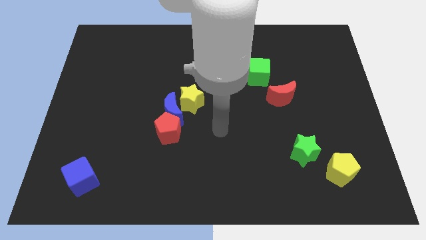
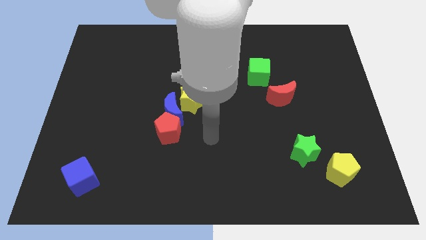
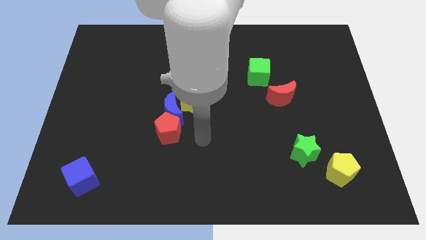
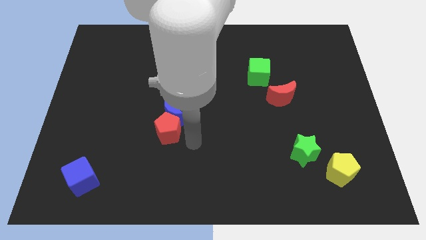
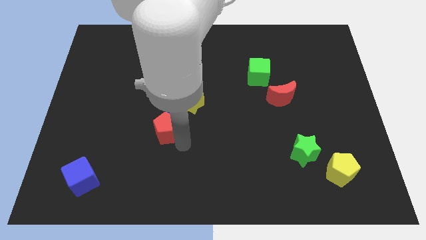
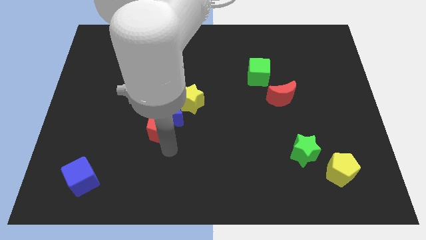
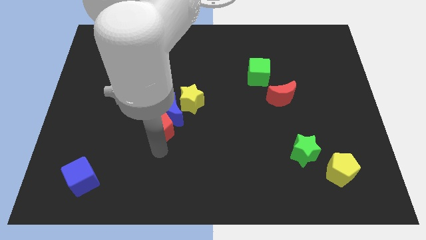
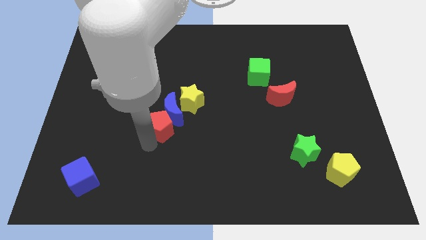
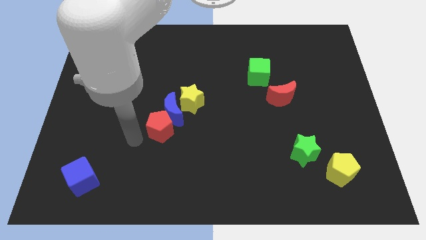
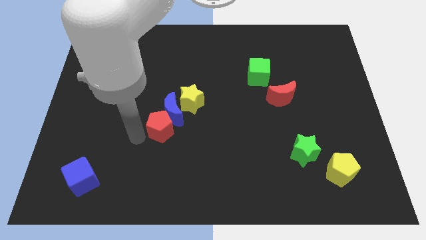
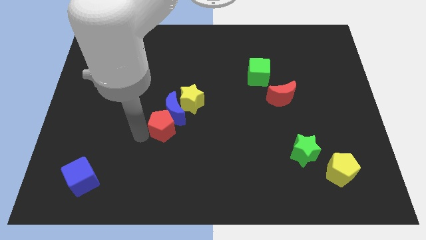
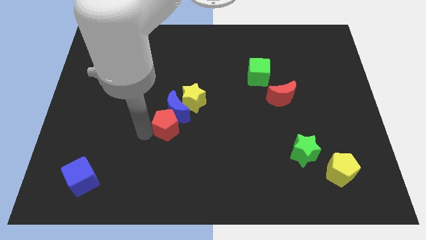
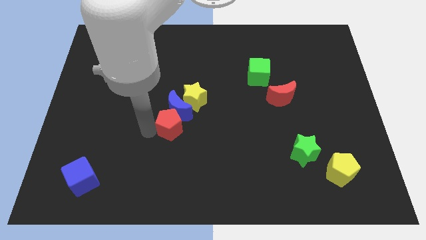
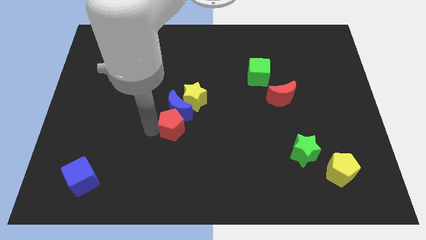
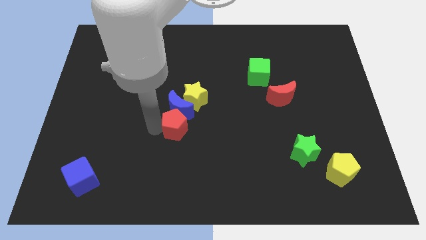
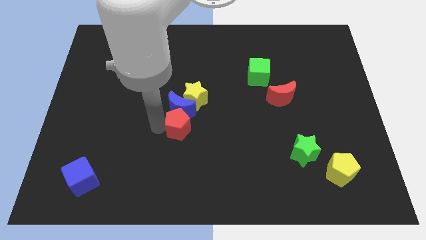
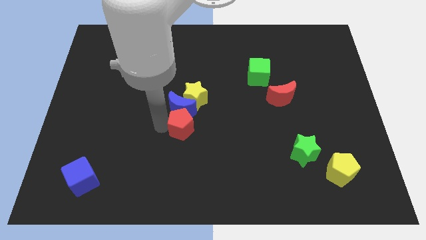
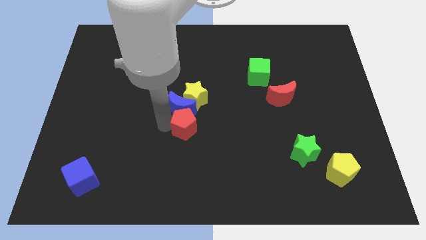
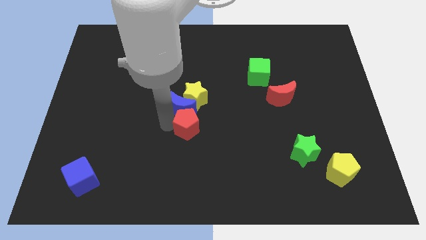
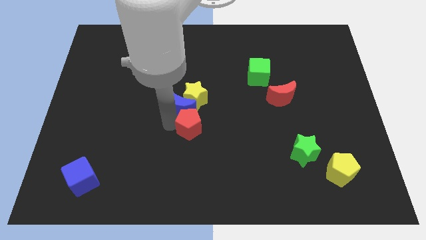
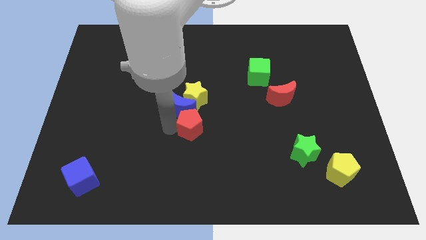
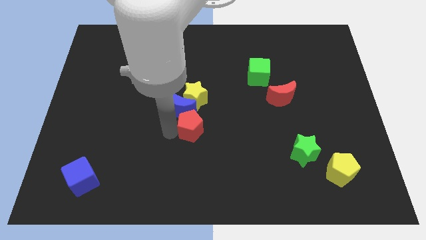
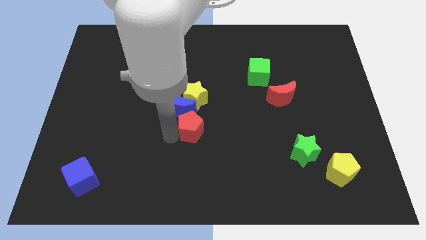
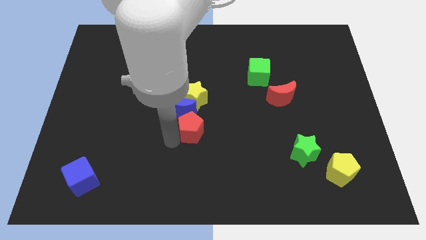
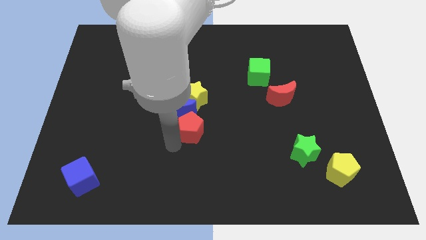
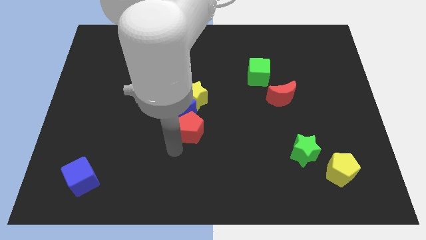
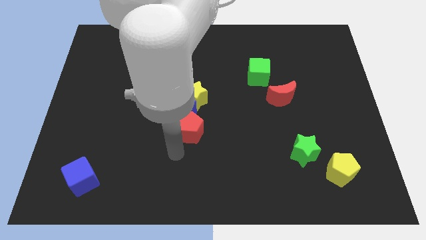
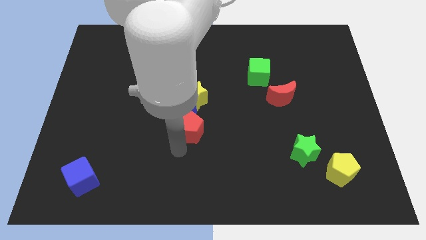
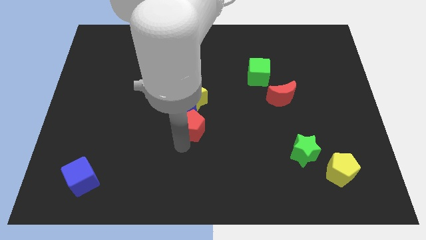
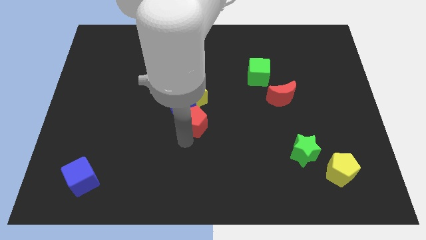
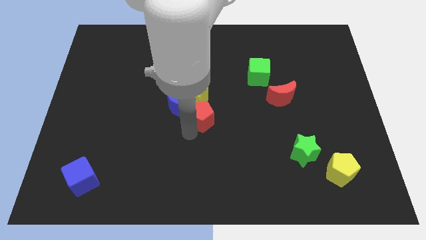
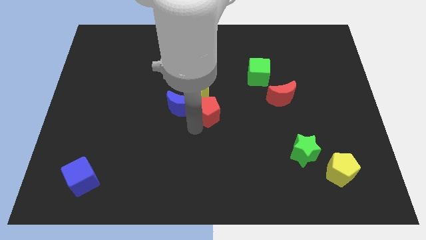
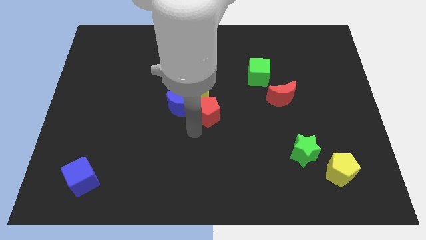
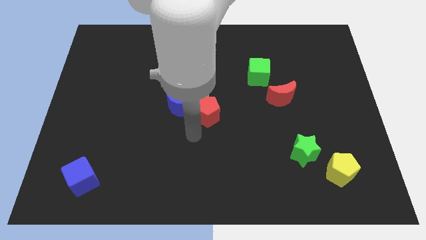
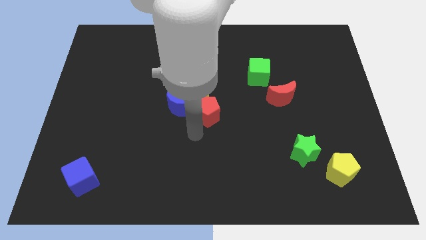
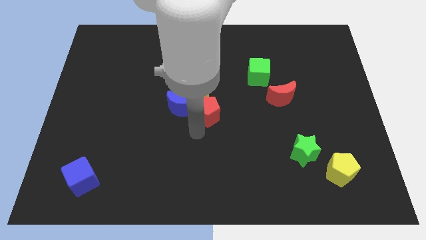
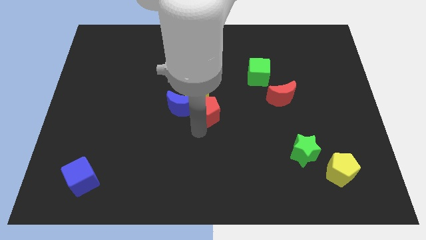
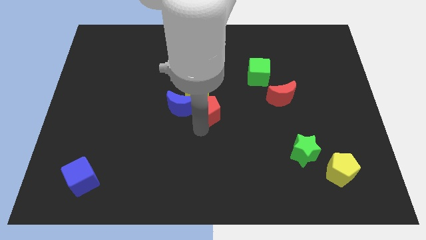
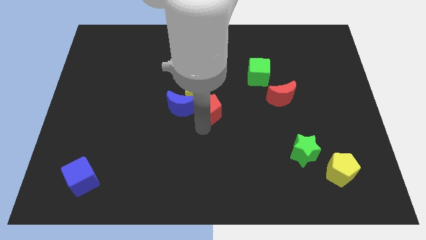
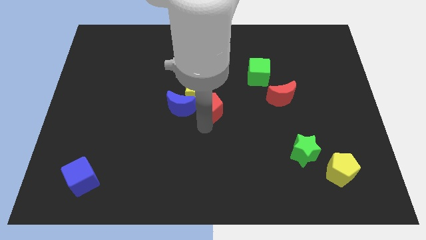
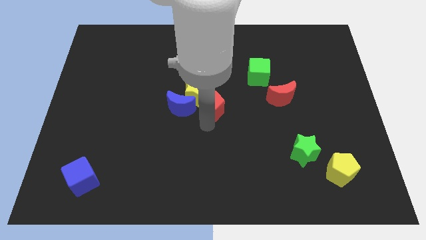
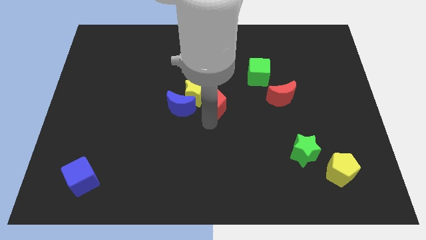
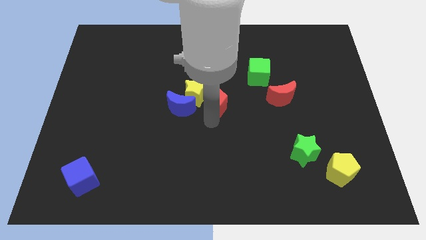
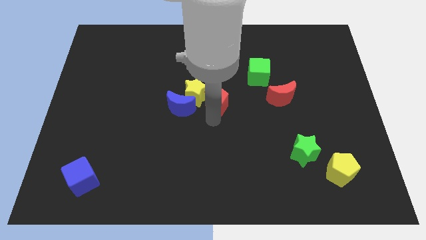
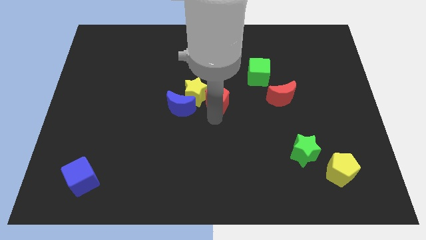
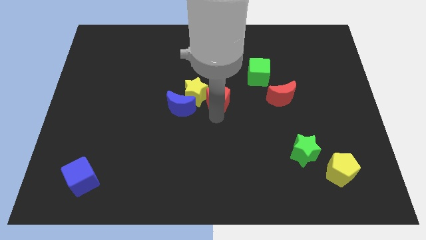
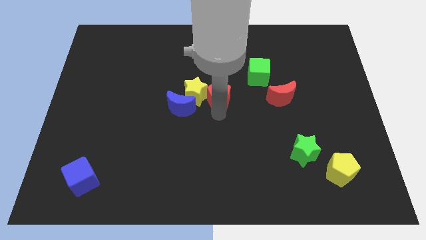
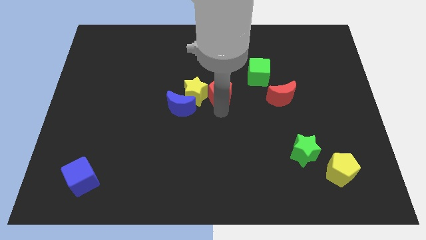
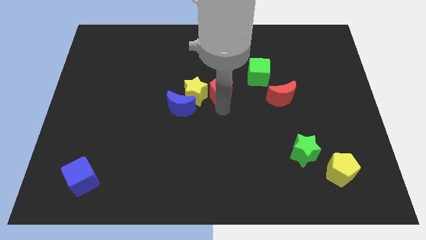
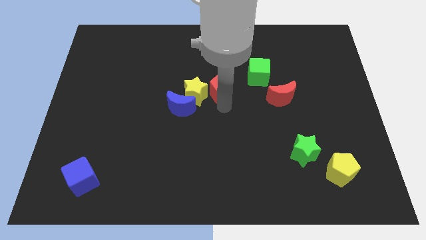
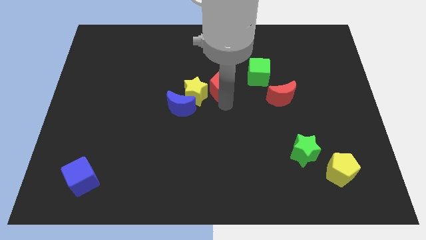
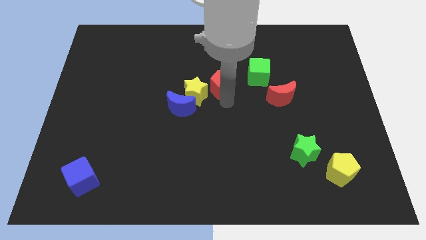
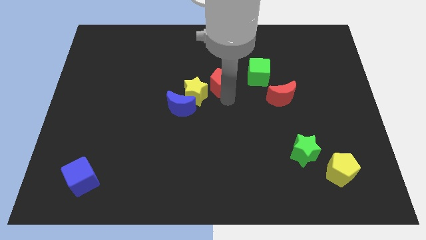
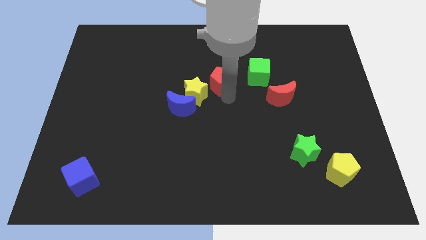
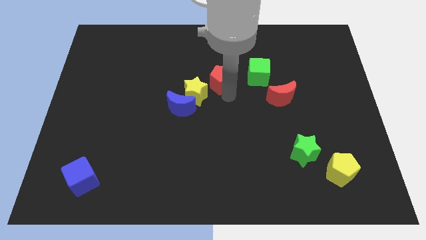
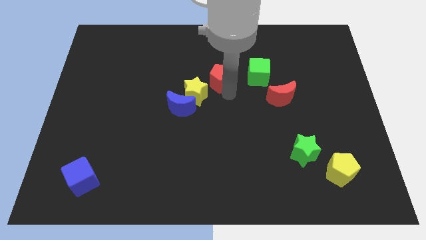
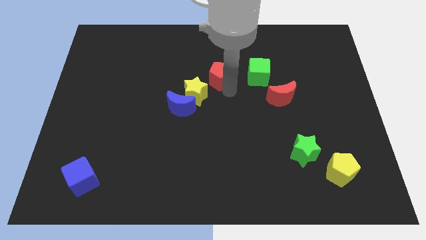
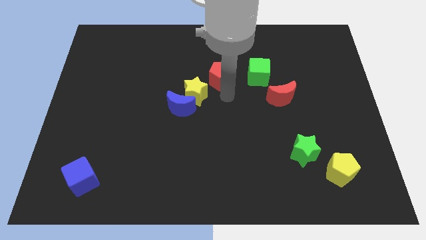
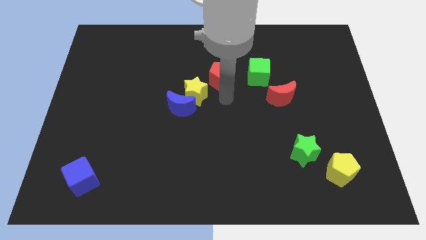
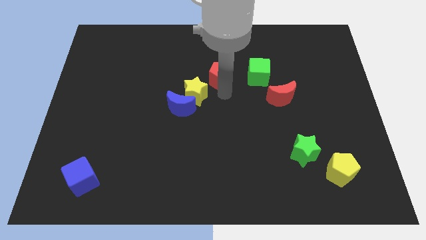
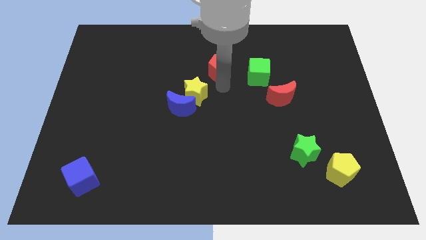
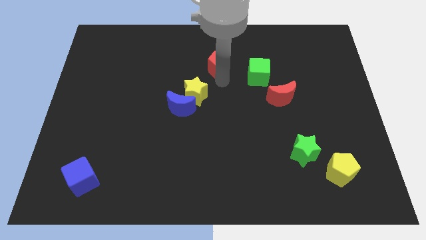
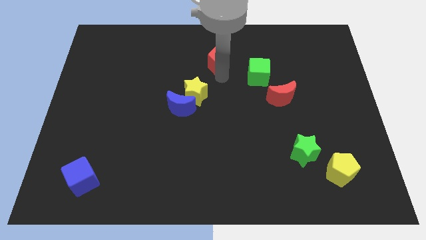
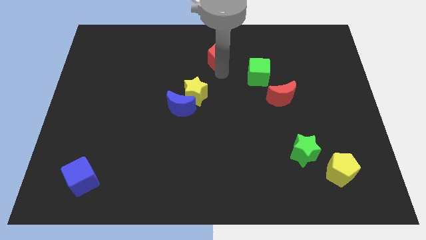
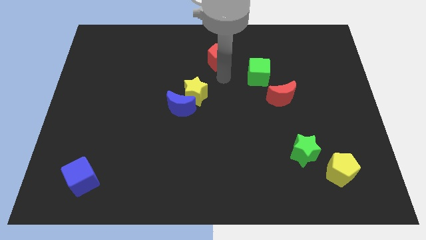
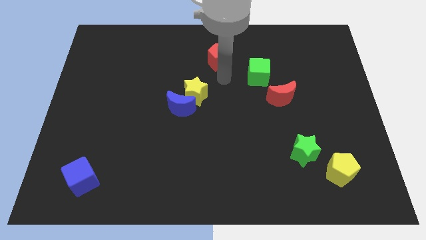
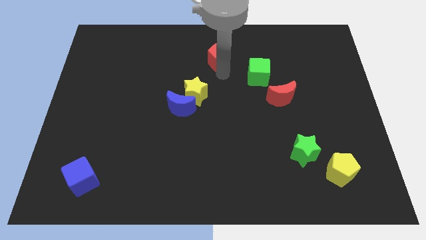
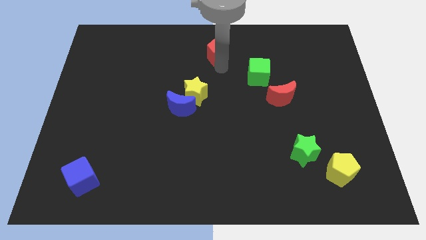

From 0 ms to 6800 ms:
put the red pentagon to the towards your base
